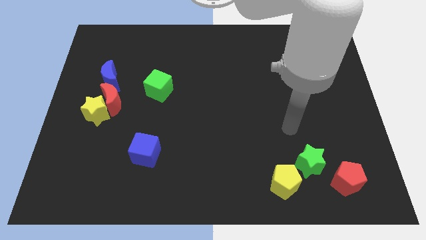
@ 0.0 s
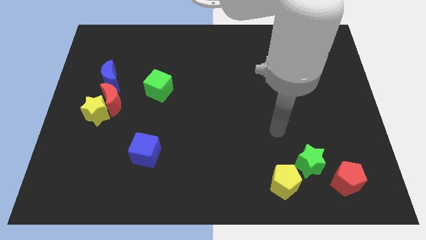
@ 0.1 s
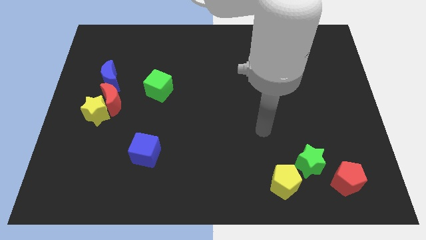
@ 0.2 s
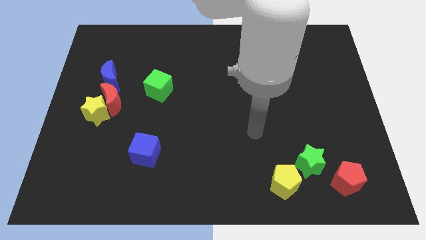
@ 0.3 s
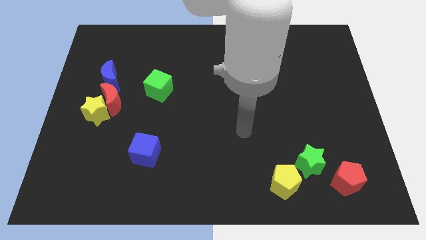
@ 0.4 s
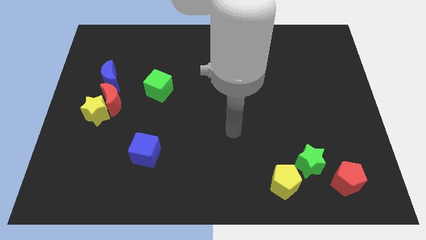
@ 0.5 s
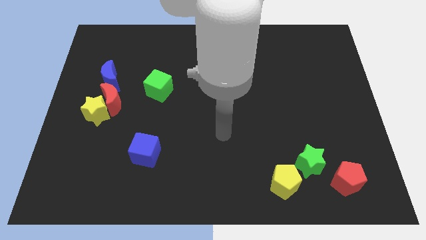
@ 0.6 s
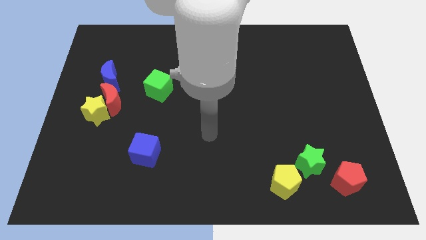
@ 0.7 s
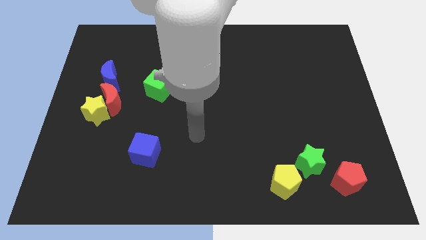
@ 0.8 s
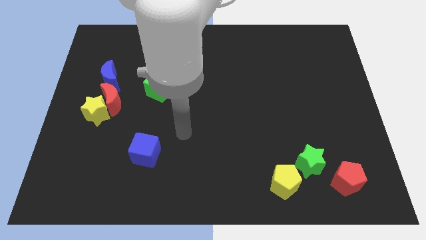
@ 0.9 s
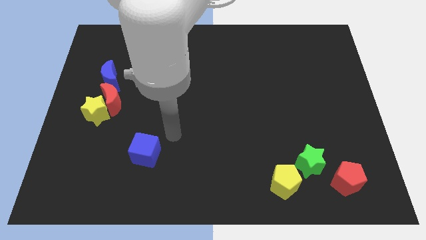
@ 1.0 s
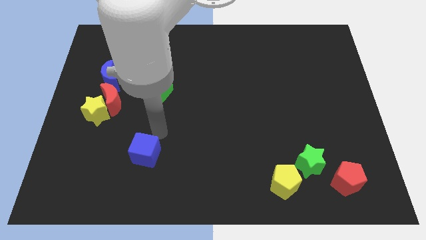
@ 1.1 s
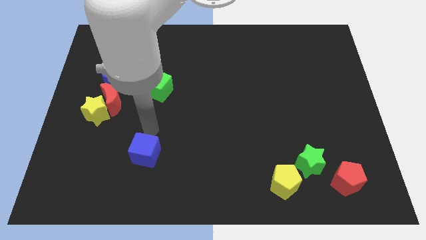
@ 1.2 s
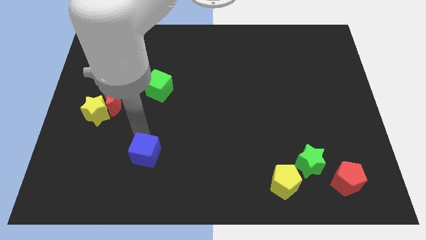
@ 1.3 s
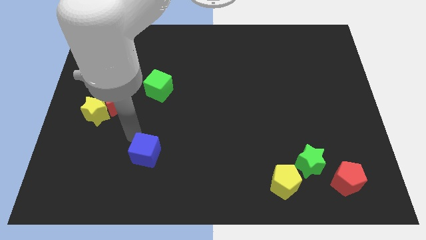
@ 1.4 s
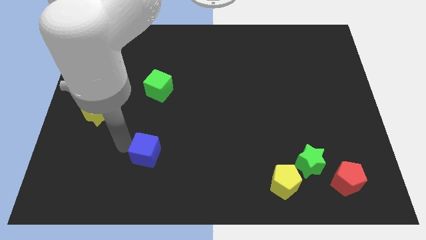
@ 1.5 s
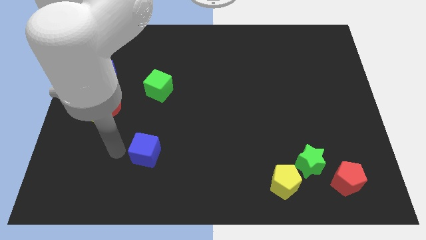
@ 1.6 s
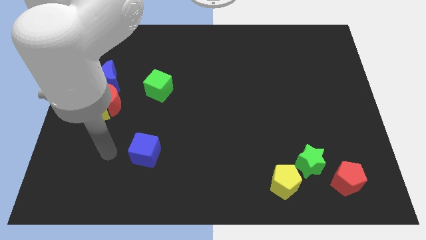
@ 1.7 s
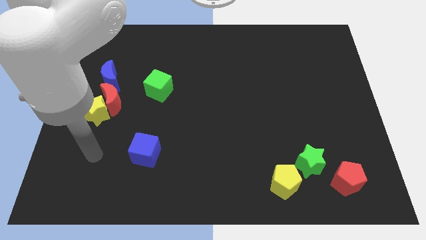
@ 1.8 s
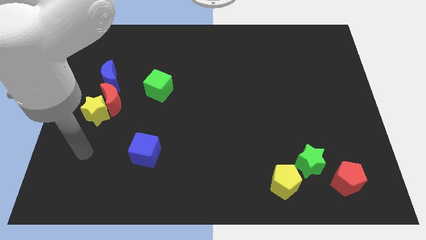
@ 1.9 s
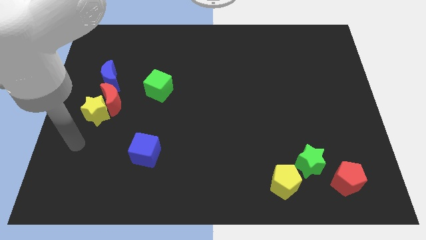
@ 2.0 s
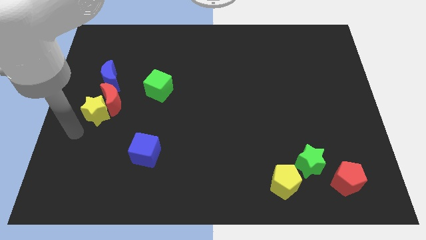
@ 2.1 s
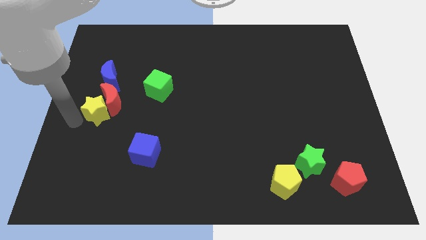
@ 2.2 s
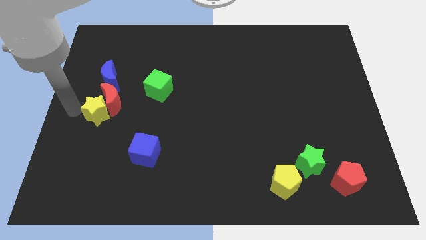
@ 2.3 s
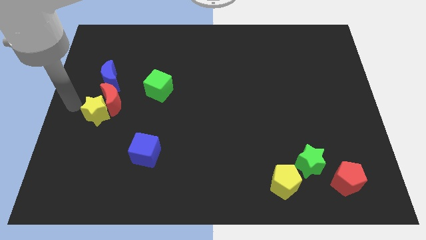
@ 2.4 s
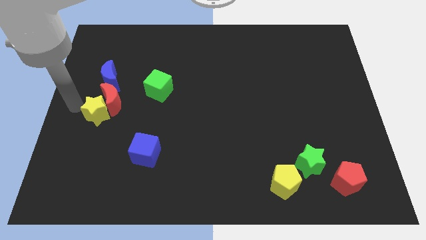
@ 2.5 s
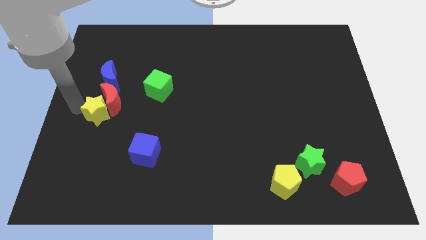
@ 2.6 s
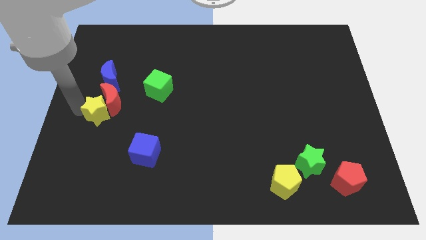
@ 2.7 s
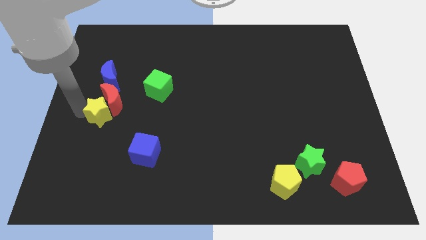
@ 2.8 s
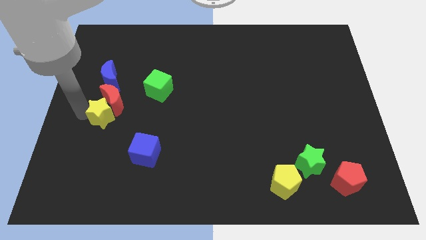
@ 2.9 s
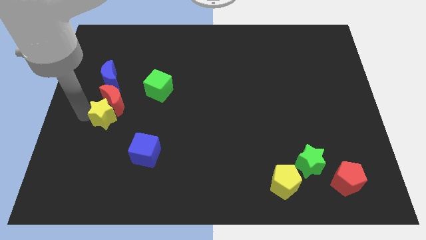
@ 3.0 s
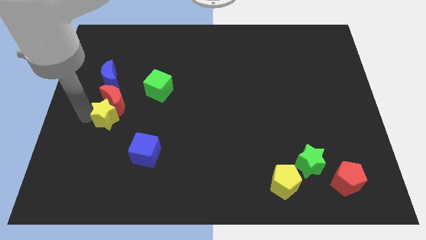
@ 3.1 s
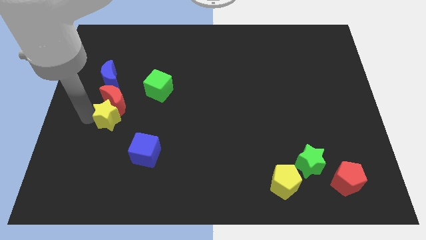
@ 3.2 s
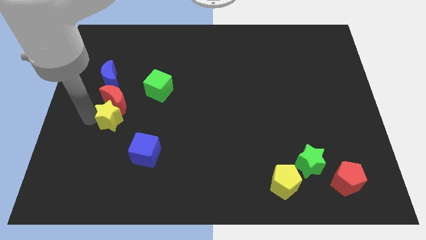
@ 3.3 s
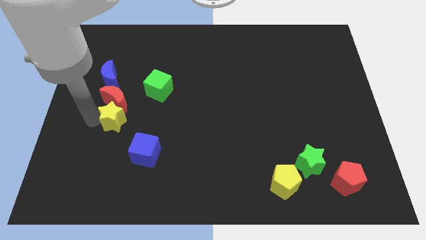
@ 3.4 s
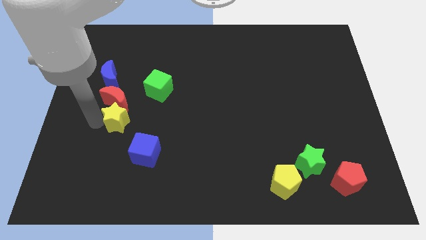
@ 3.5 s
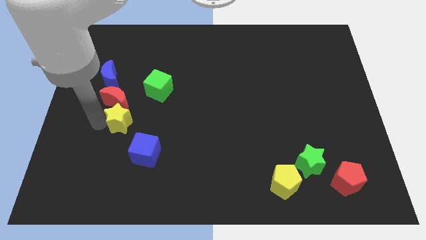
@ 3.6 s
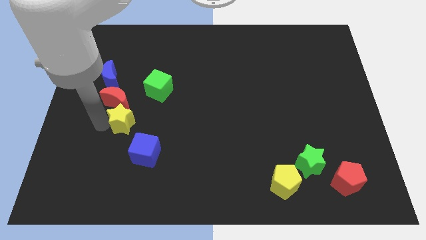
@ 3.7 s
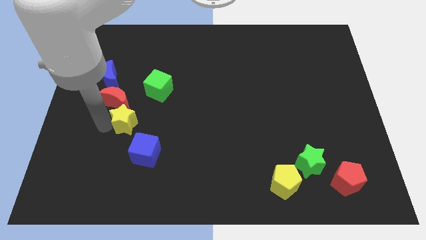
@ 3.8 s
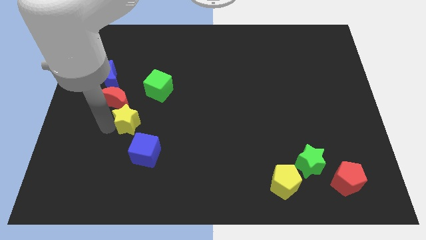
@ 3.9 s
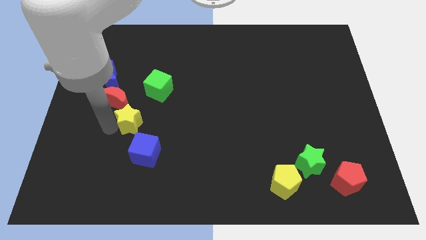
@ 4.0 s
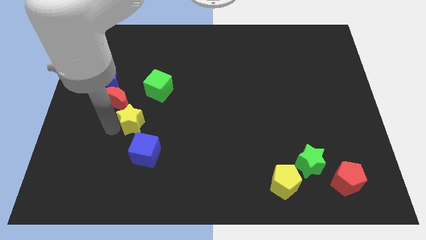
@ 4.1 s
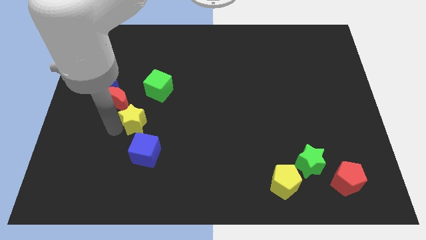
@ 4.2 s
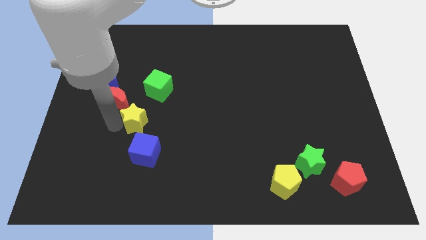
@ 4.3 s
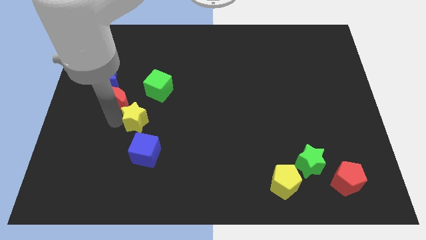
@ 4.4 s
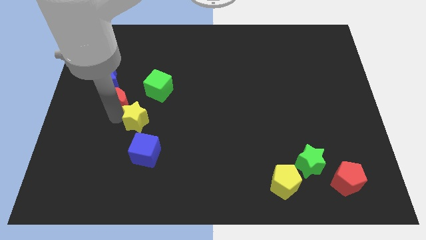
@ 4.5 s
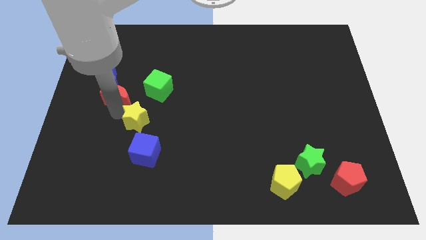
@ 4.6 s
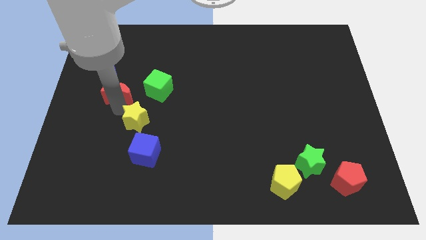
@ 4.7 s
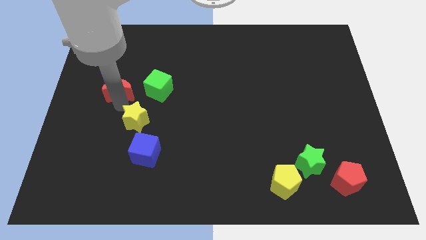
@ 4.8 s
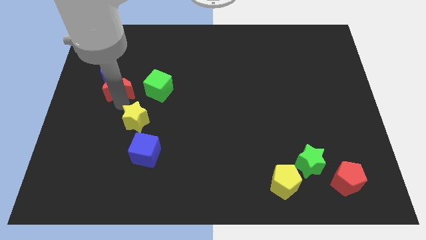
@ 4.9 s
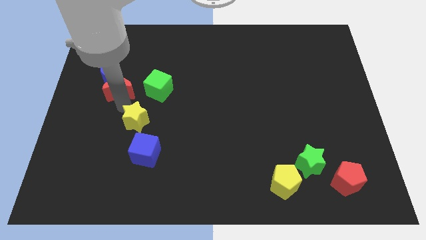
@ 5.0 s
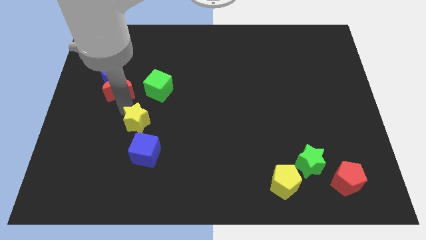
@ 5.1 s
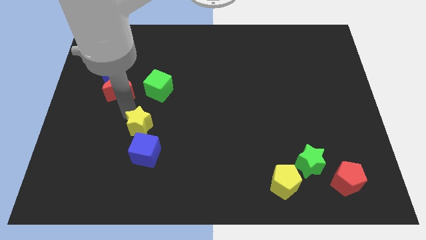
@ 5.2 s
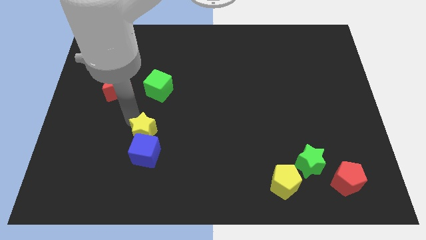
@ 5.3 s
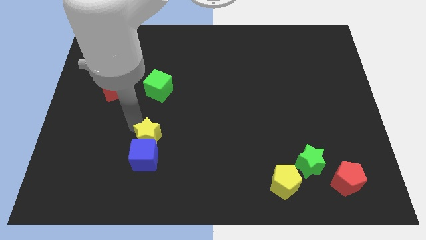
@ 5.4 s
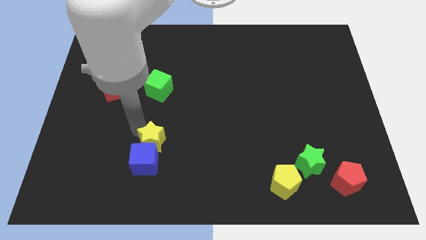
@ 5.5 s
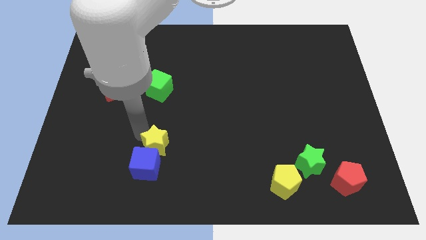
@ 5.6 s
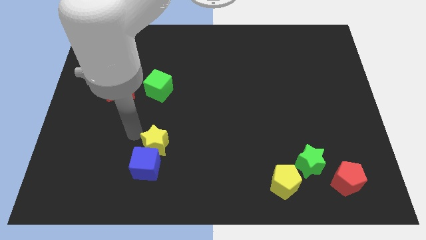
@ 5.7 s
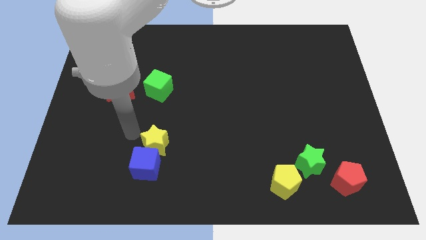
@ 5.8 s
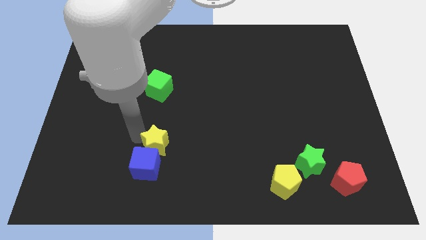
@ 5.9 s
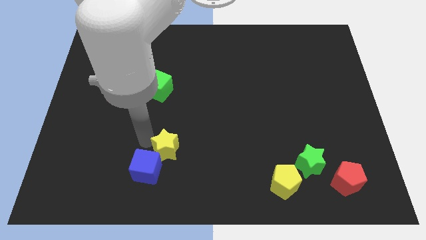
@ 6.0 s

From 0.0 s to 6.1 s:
move the yellow star to the right side of the blue cube

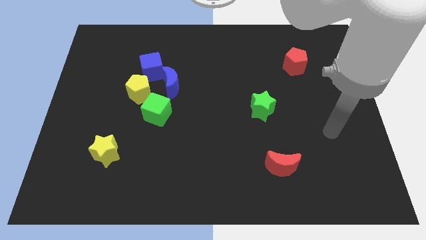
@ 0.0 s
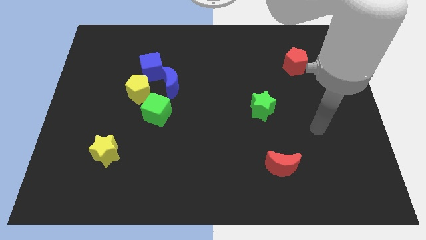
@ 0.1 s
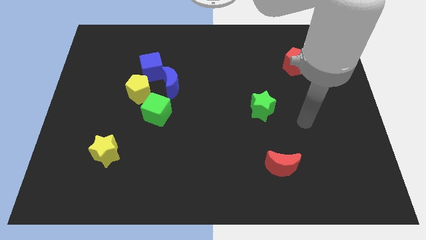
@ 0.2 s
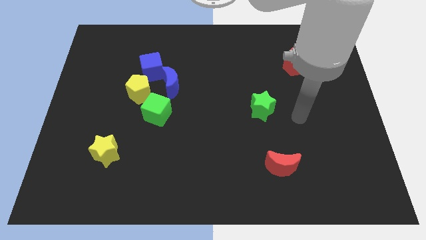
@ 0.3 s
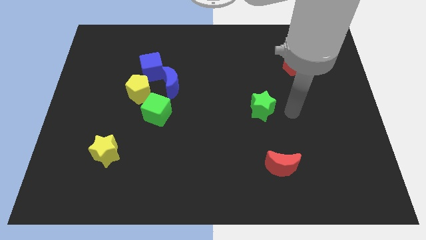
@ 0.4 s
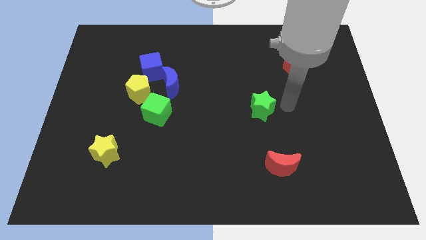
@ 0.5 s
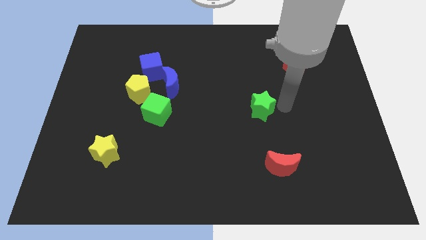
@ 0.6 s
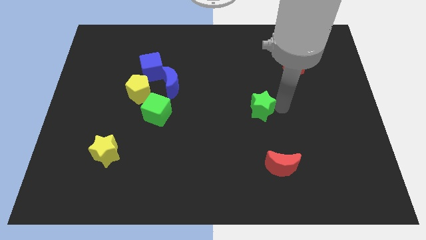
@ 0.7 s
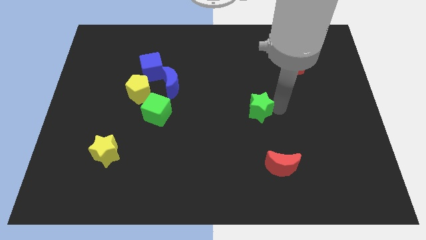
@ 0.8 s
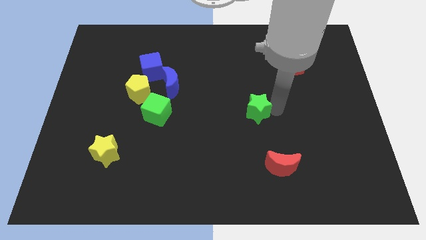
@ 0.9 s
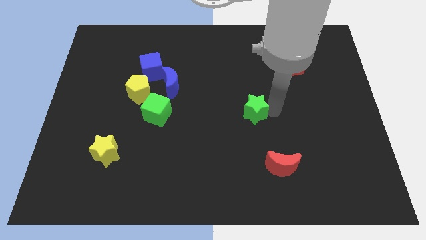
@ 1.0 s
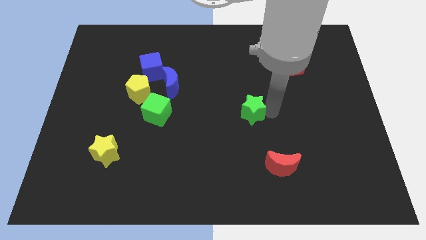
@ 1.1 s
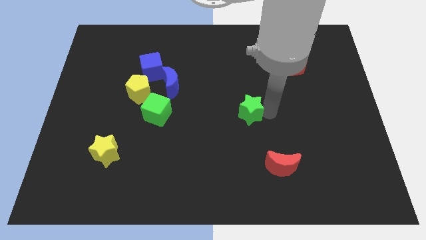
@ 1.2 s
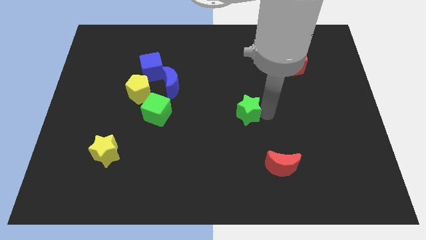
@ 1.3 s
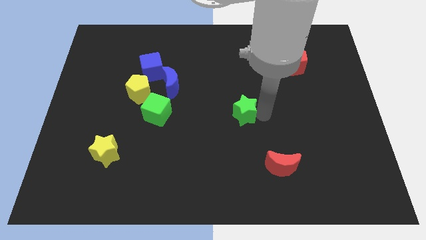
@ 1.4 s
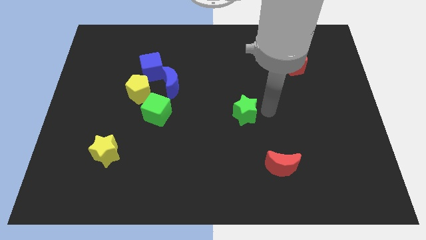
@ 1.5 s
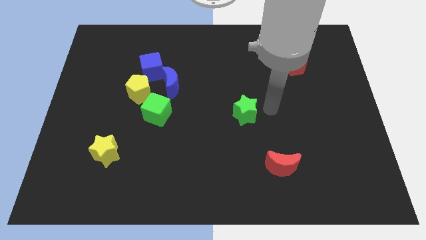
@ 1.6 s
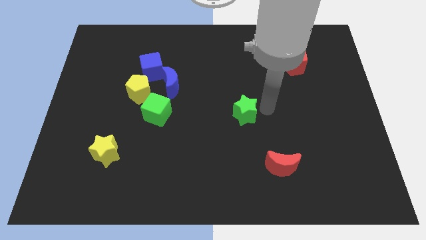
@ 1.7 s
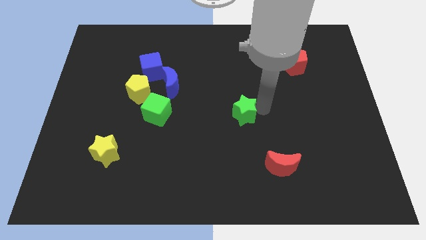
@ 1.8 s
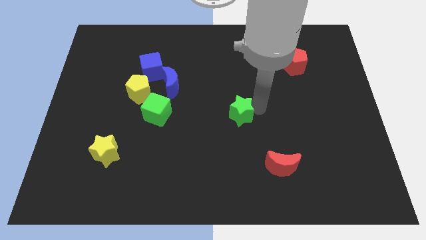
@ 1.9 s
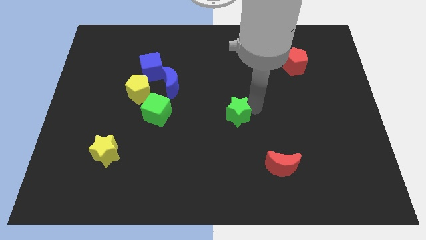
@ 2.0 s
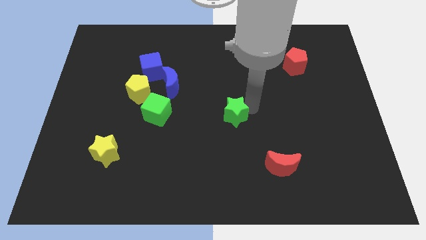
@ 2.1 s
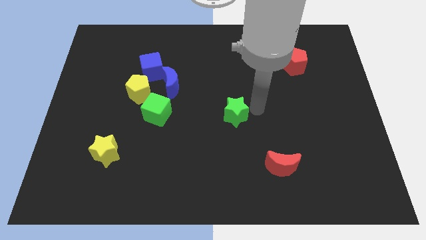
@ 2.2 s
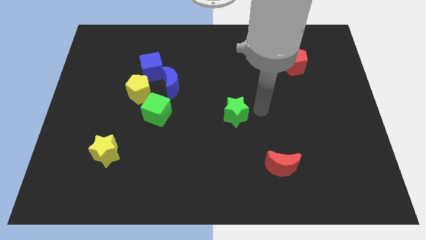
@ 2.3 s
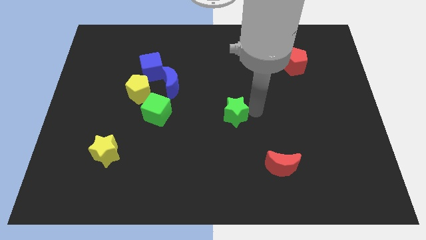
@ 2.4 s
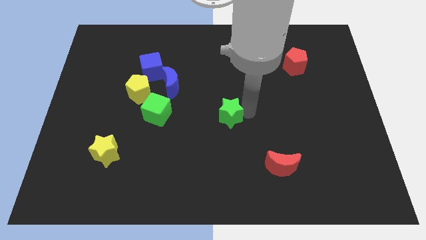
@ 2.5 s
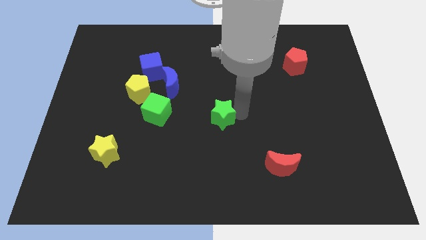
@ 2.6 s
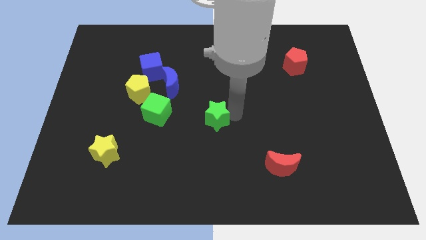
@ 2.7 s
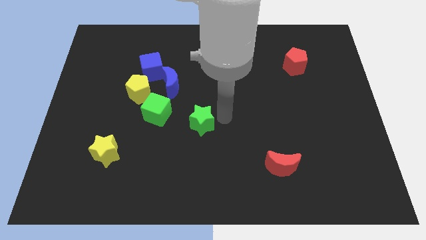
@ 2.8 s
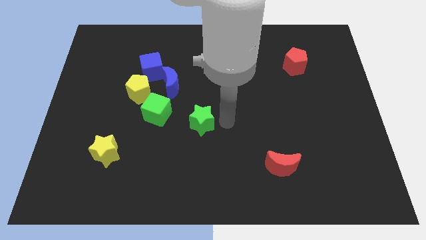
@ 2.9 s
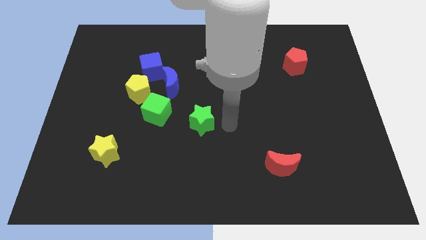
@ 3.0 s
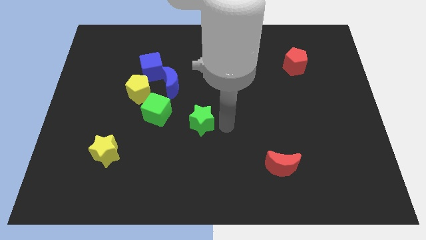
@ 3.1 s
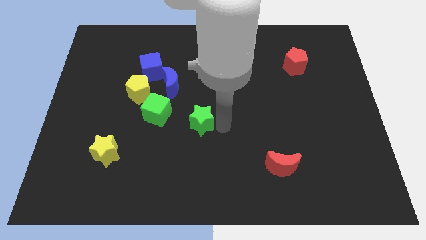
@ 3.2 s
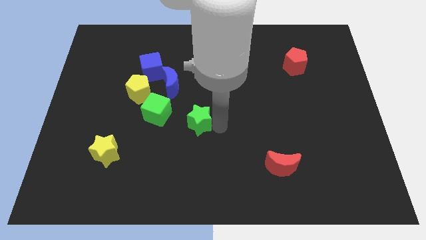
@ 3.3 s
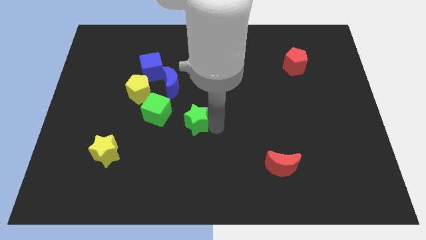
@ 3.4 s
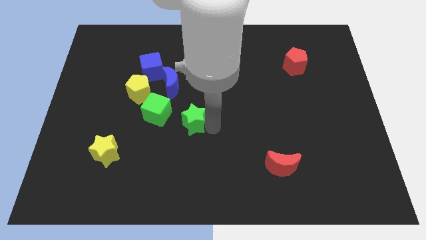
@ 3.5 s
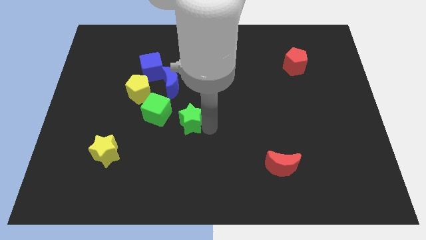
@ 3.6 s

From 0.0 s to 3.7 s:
push the green star below the blue moon
